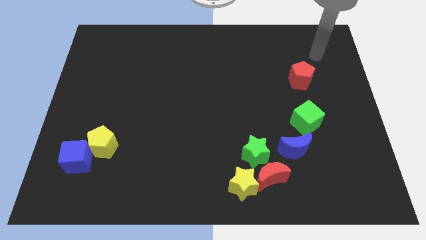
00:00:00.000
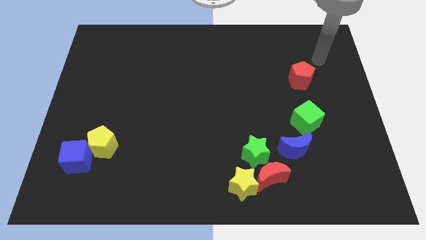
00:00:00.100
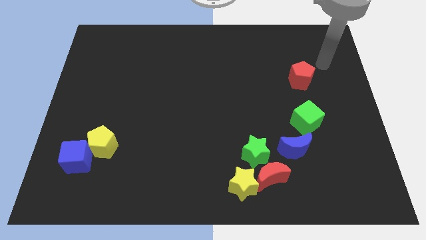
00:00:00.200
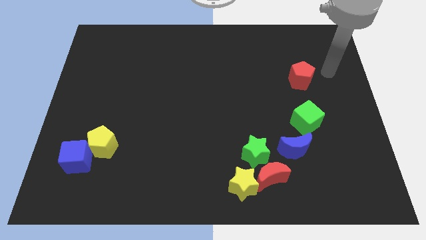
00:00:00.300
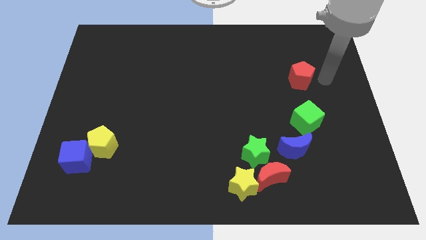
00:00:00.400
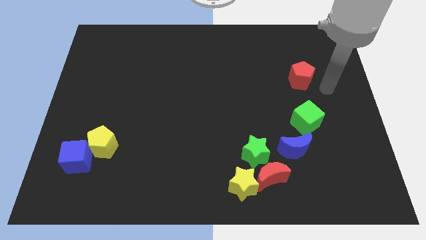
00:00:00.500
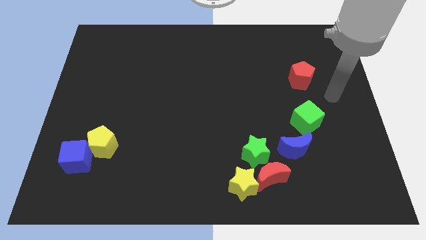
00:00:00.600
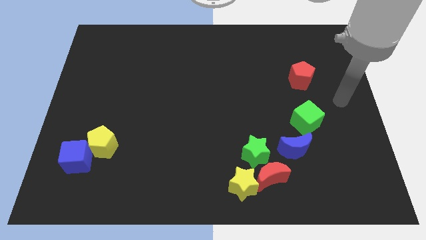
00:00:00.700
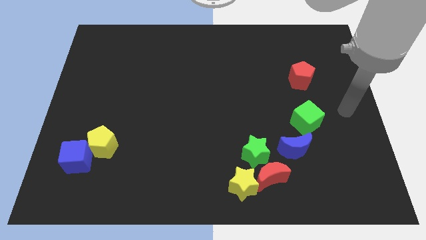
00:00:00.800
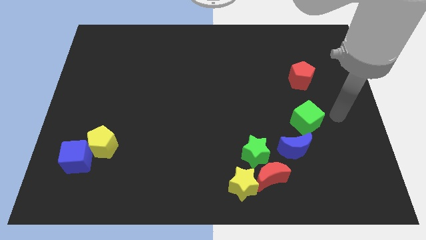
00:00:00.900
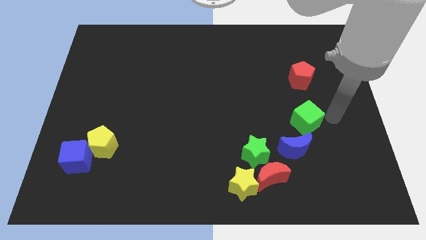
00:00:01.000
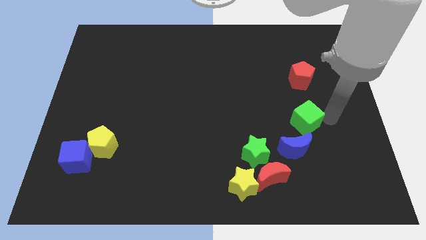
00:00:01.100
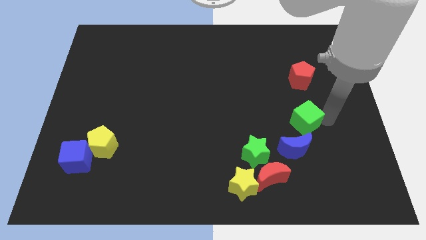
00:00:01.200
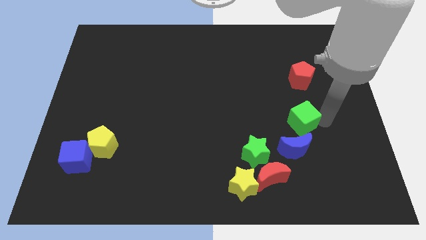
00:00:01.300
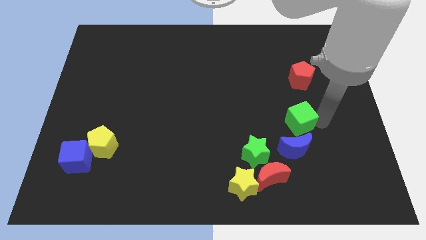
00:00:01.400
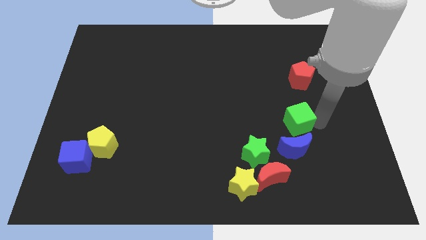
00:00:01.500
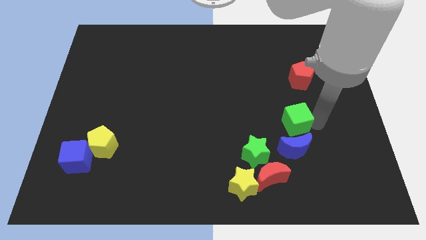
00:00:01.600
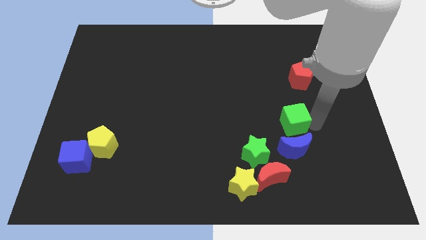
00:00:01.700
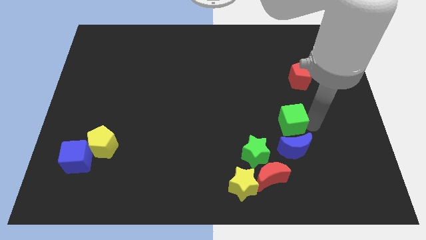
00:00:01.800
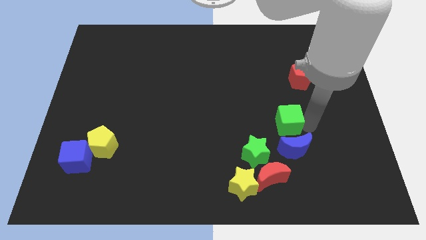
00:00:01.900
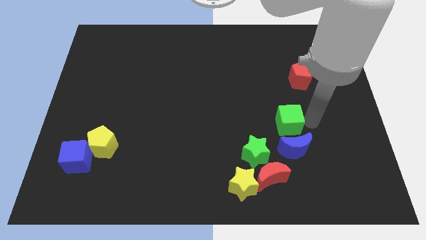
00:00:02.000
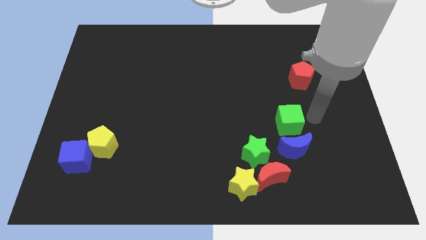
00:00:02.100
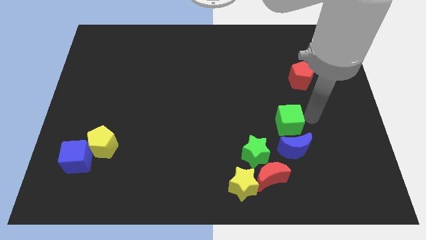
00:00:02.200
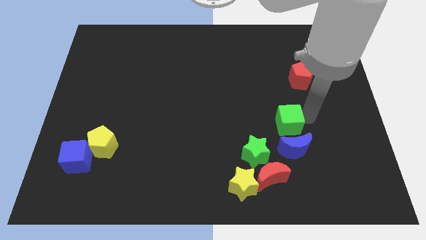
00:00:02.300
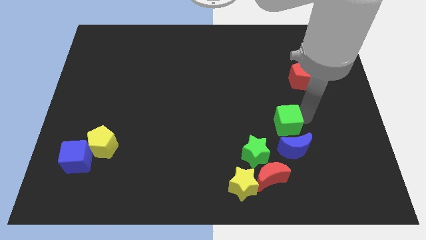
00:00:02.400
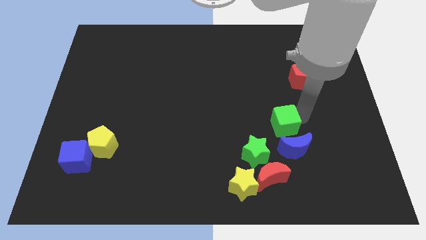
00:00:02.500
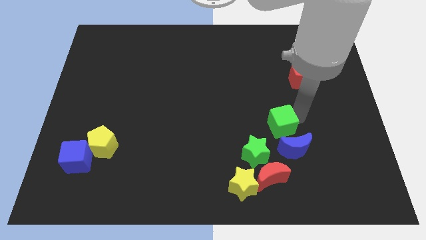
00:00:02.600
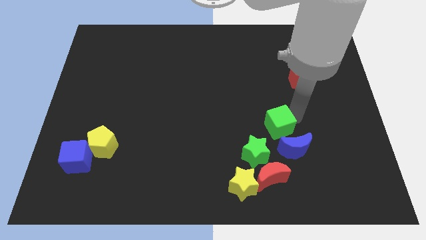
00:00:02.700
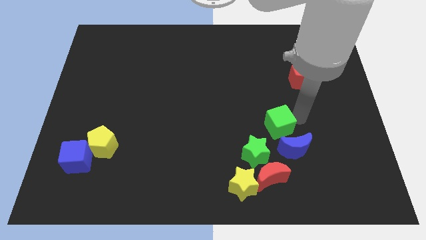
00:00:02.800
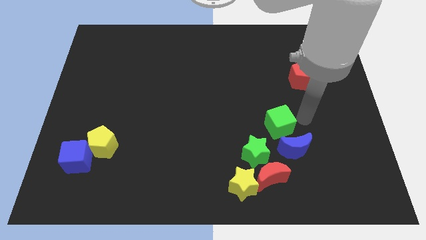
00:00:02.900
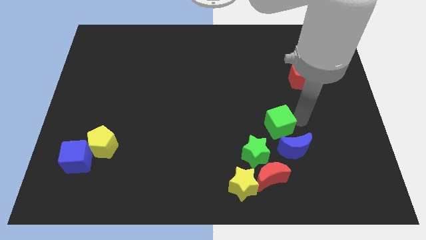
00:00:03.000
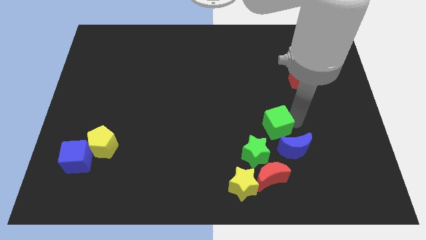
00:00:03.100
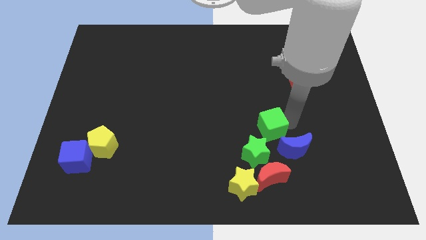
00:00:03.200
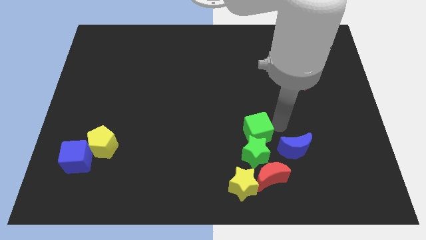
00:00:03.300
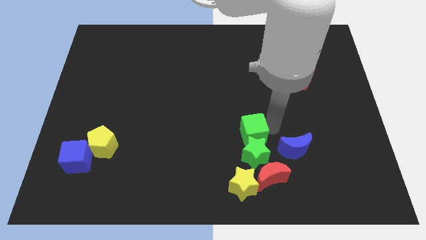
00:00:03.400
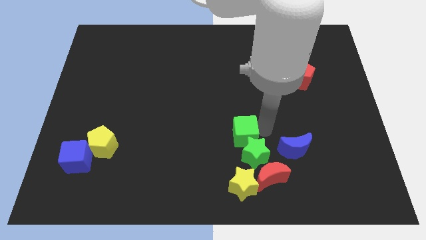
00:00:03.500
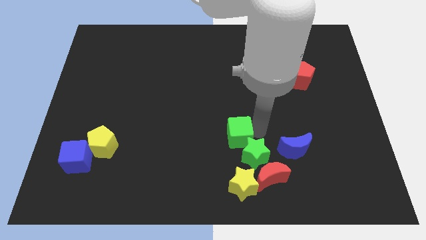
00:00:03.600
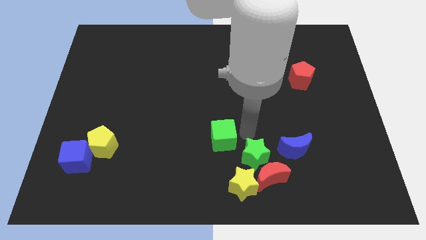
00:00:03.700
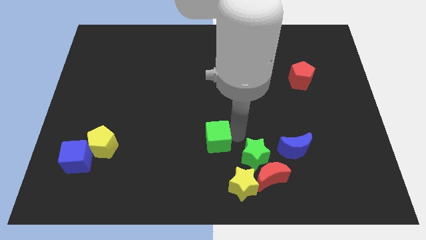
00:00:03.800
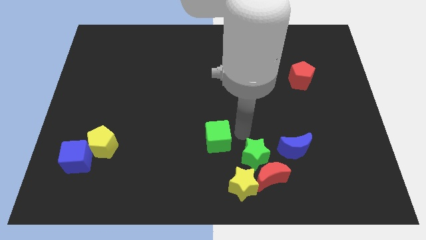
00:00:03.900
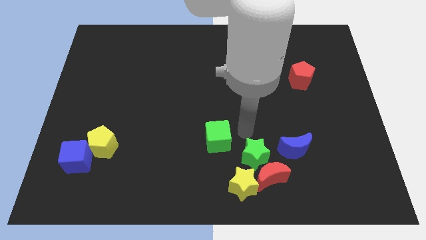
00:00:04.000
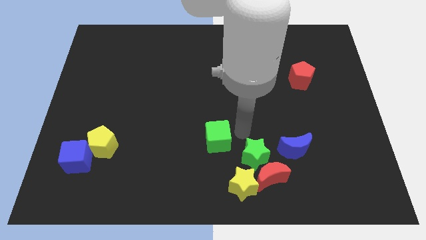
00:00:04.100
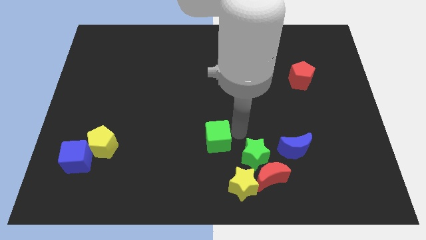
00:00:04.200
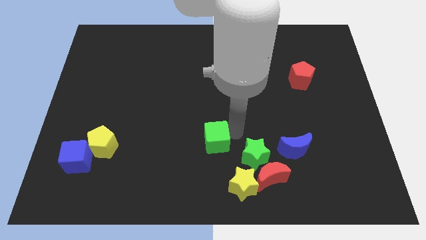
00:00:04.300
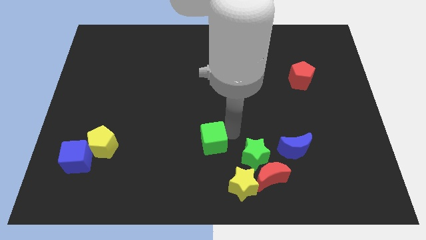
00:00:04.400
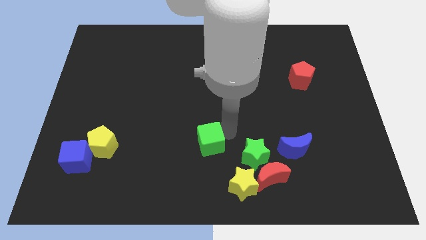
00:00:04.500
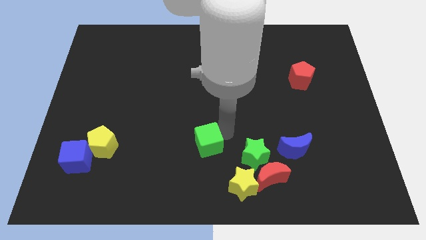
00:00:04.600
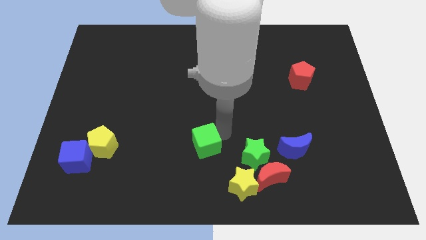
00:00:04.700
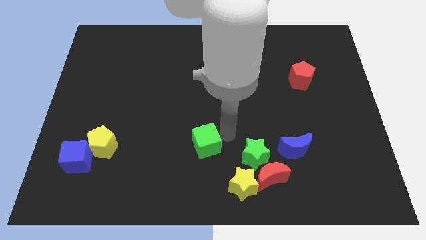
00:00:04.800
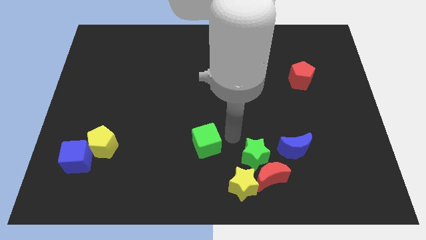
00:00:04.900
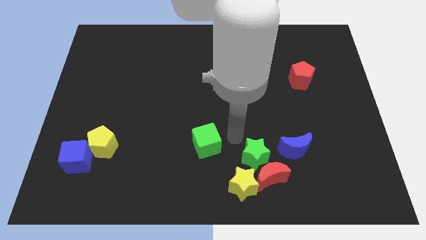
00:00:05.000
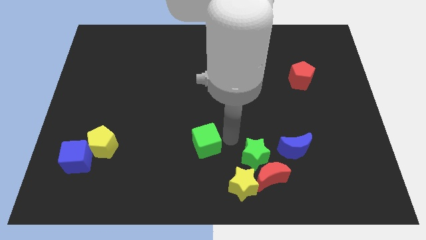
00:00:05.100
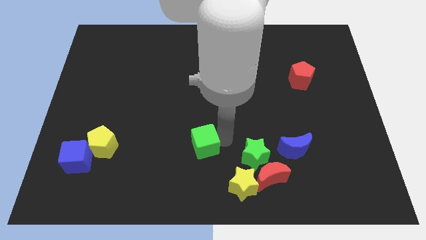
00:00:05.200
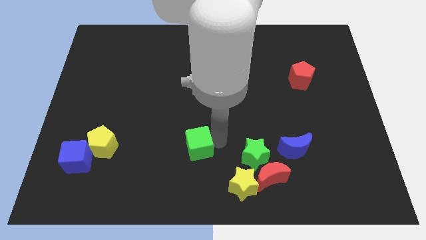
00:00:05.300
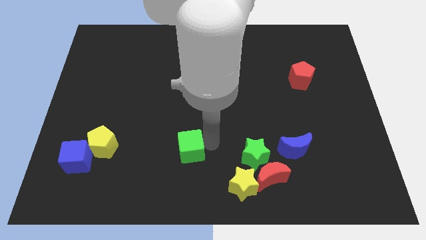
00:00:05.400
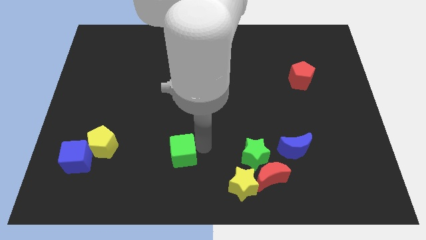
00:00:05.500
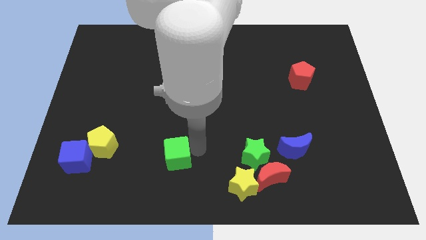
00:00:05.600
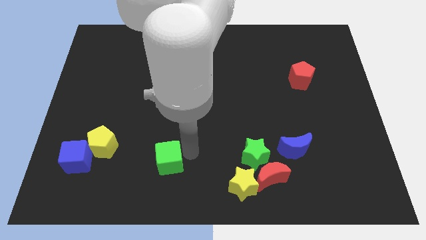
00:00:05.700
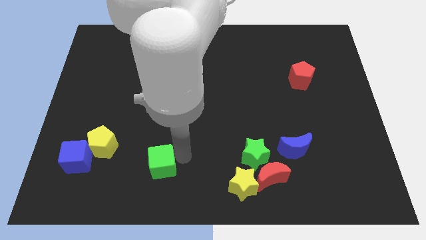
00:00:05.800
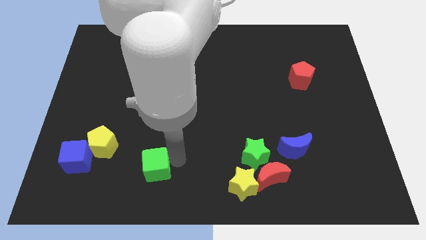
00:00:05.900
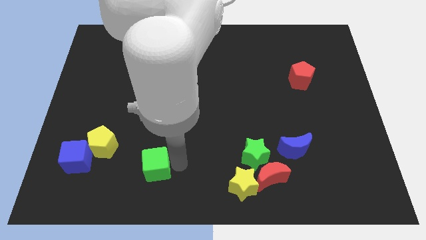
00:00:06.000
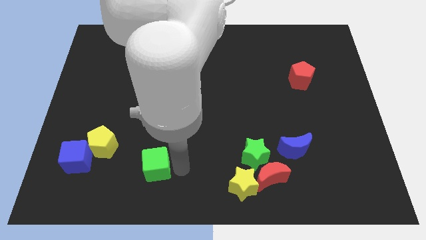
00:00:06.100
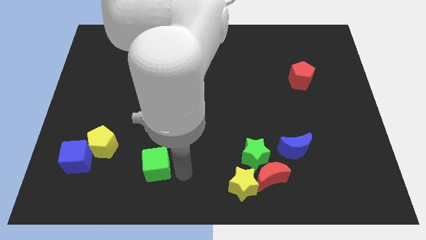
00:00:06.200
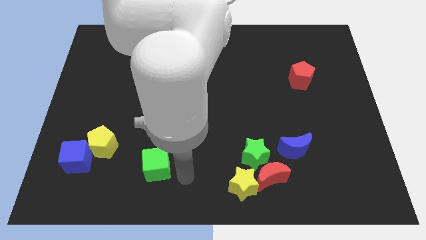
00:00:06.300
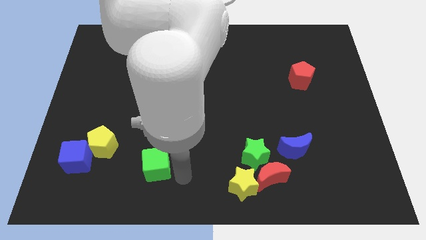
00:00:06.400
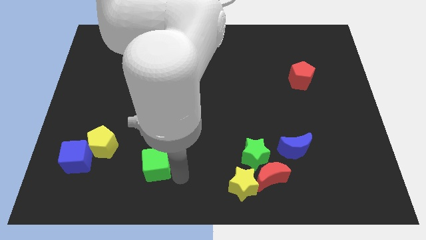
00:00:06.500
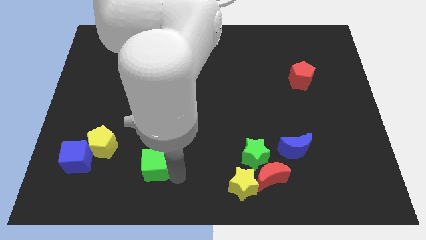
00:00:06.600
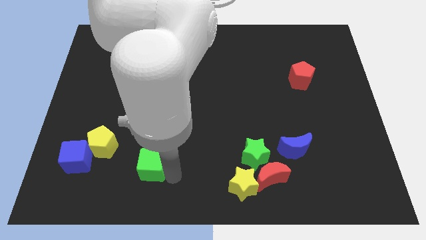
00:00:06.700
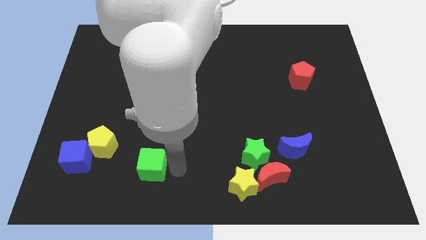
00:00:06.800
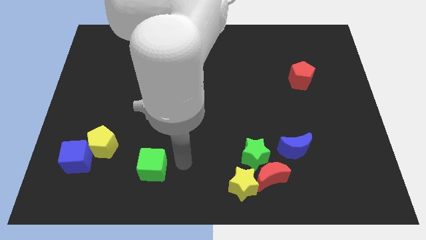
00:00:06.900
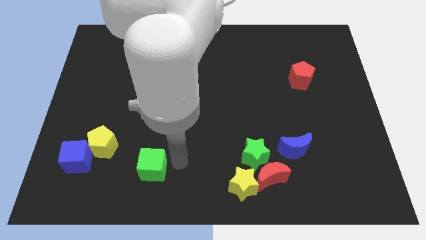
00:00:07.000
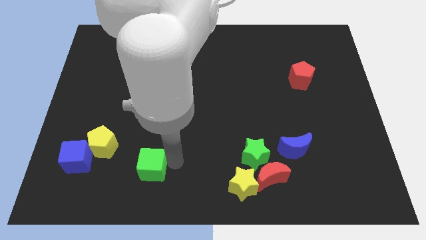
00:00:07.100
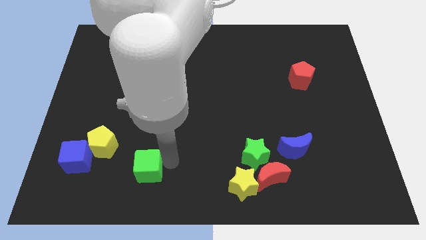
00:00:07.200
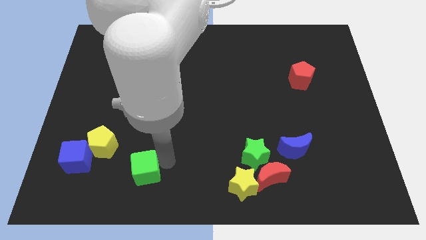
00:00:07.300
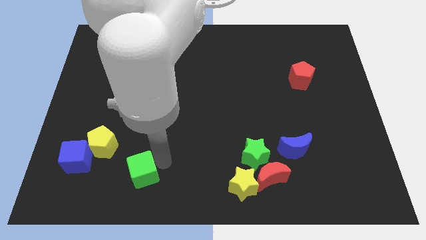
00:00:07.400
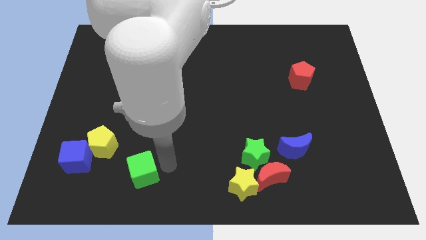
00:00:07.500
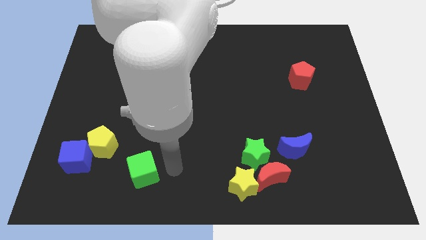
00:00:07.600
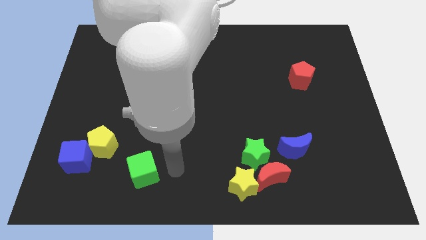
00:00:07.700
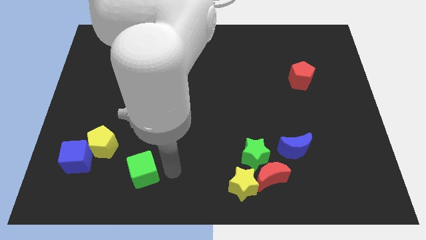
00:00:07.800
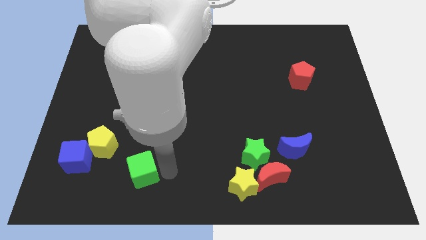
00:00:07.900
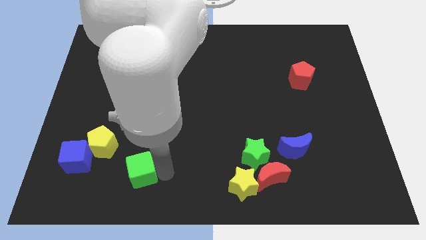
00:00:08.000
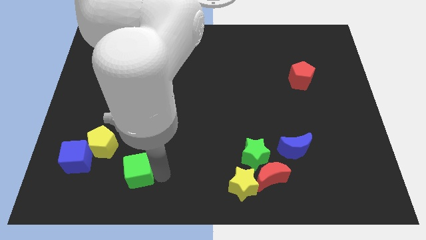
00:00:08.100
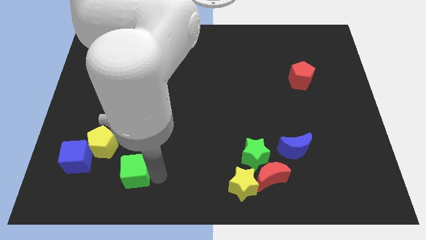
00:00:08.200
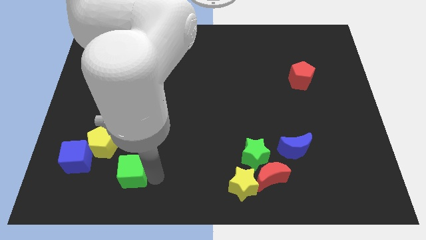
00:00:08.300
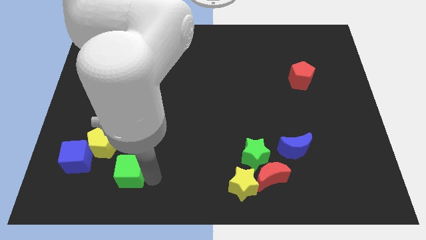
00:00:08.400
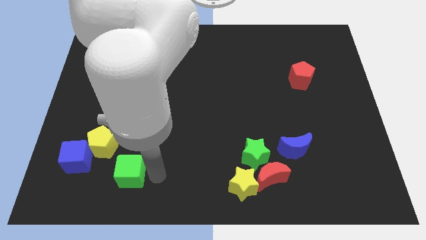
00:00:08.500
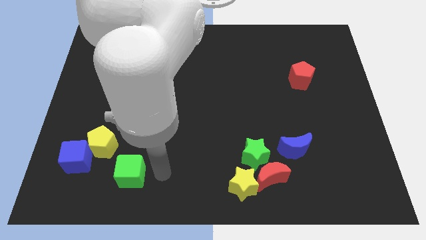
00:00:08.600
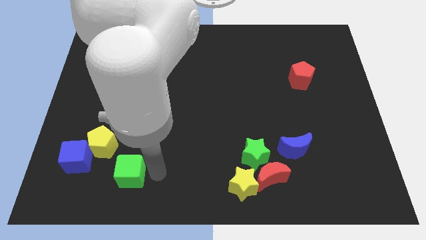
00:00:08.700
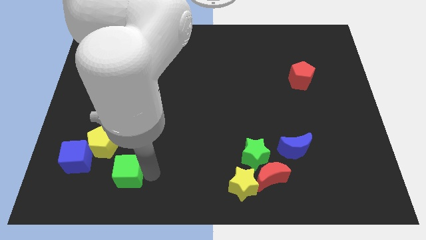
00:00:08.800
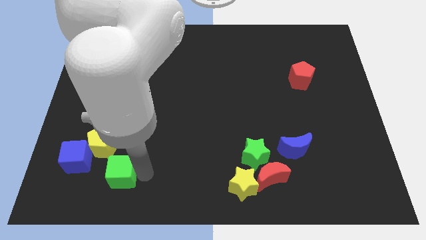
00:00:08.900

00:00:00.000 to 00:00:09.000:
slide the green cube diagonally down and to the right of the blue cube
